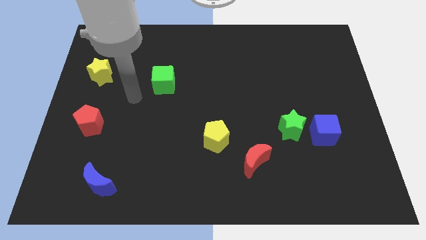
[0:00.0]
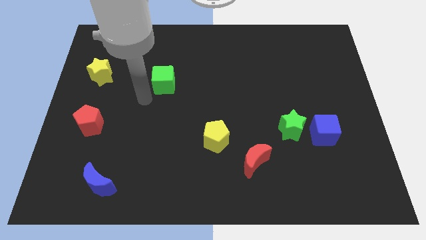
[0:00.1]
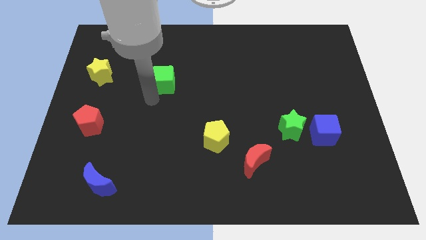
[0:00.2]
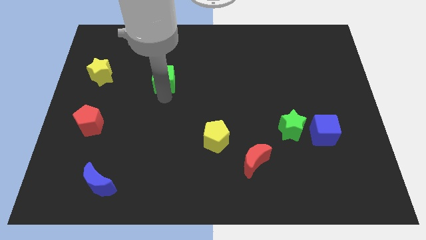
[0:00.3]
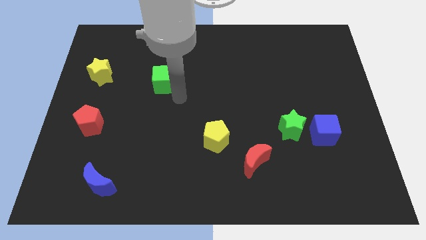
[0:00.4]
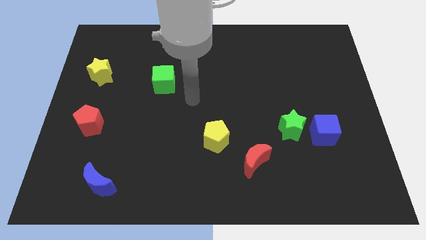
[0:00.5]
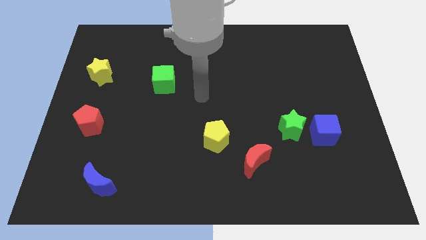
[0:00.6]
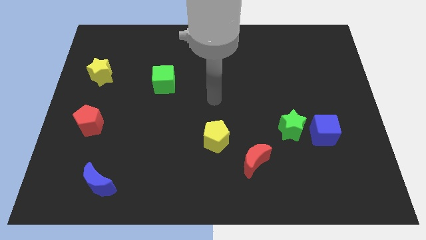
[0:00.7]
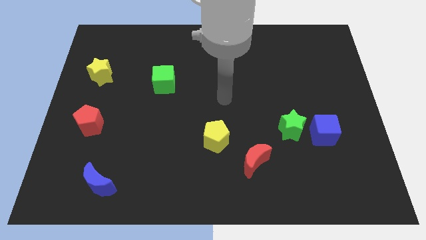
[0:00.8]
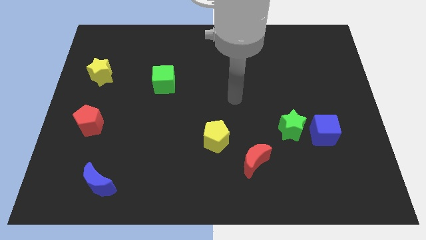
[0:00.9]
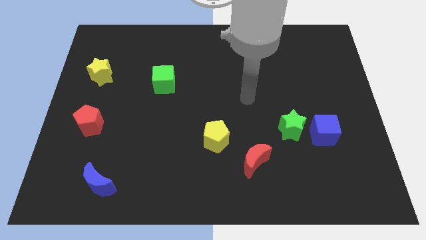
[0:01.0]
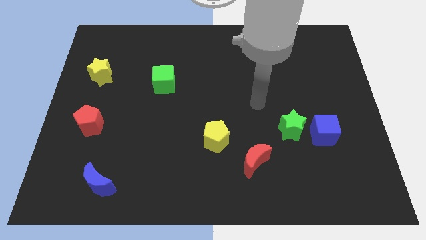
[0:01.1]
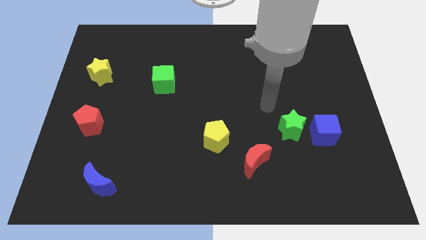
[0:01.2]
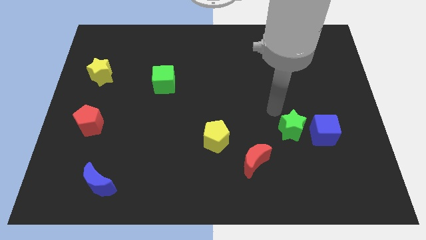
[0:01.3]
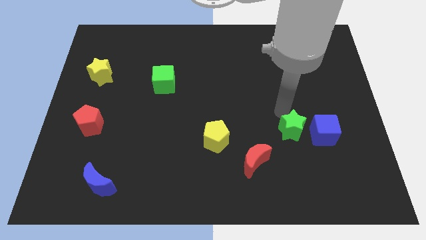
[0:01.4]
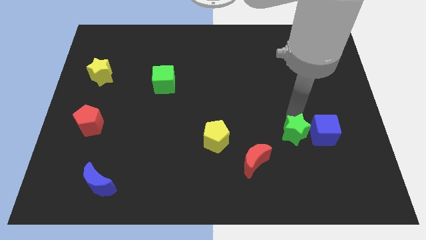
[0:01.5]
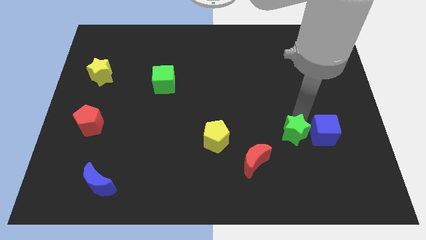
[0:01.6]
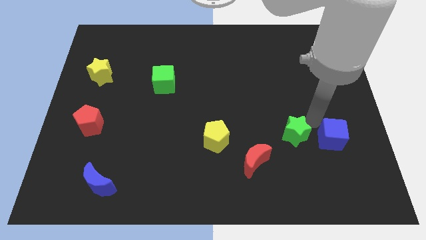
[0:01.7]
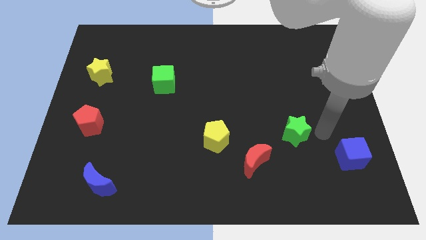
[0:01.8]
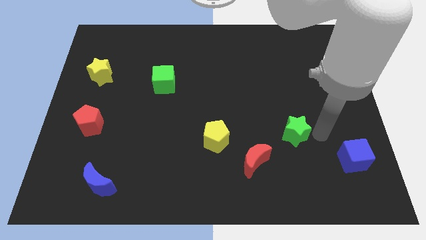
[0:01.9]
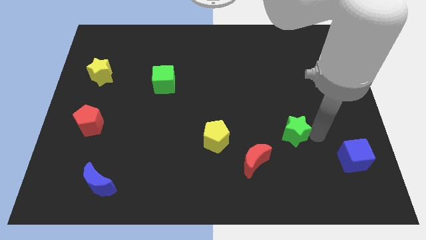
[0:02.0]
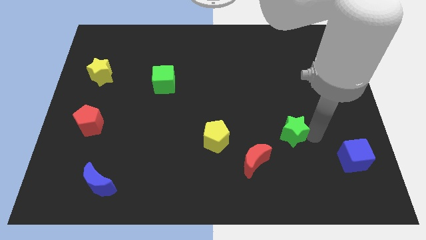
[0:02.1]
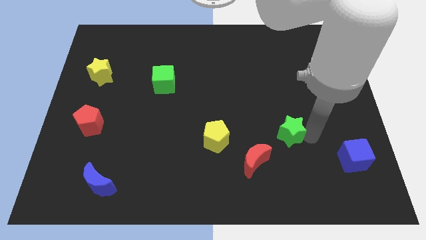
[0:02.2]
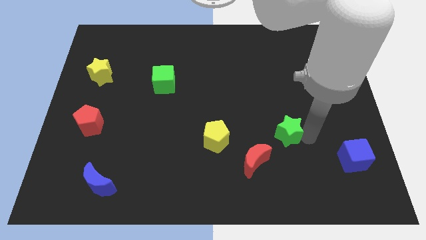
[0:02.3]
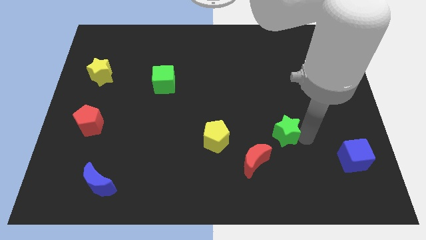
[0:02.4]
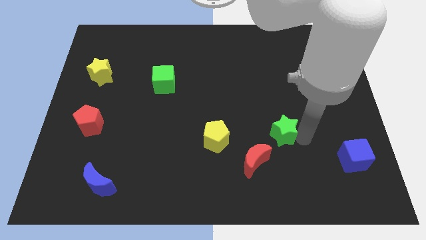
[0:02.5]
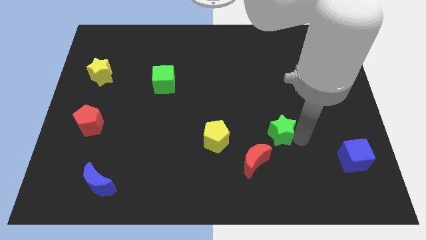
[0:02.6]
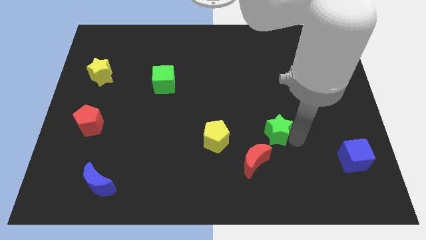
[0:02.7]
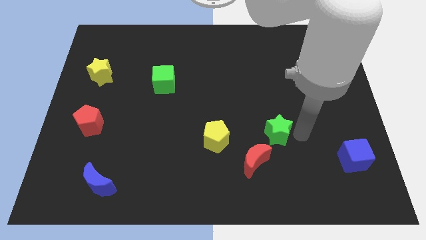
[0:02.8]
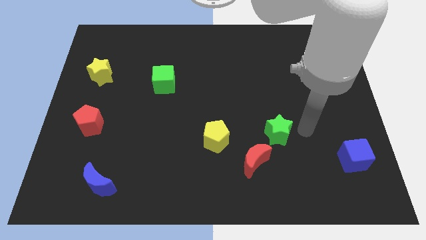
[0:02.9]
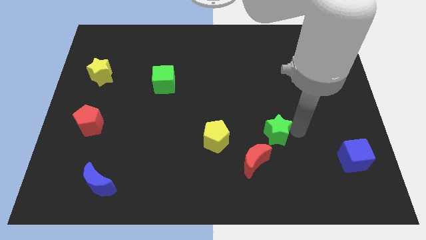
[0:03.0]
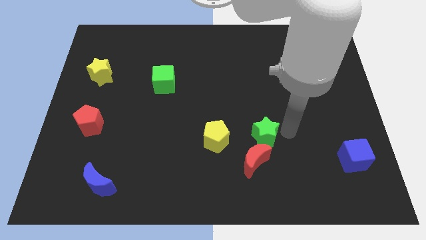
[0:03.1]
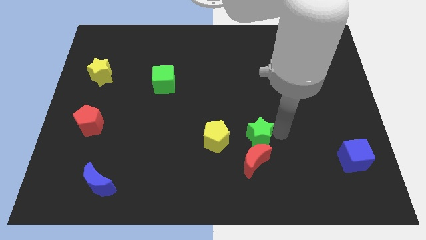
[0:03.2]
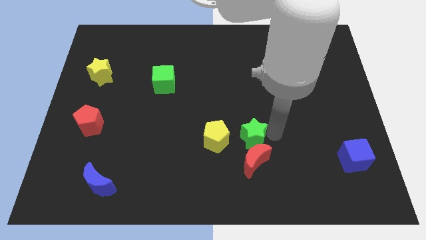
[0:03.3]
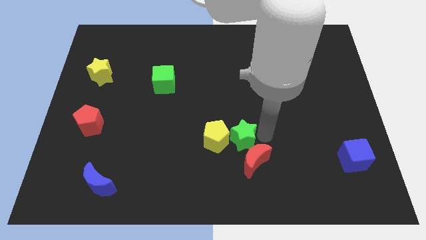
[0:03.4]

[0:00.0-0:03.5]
slide the green star to the yellow pentagon

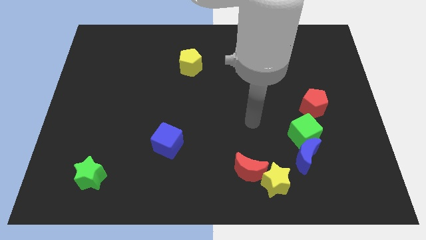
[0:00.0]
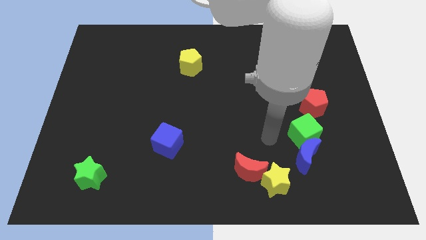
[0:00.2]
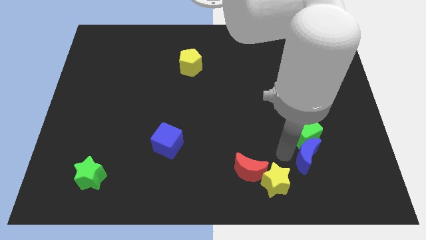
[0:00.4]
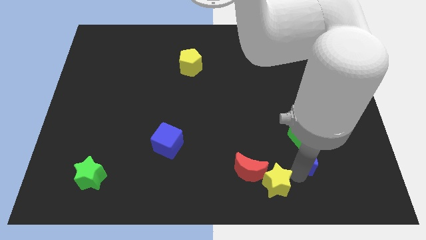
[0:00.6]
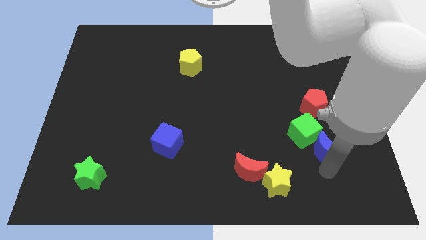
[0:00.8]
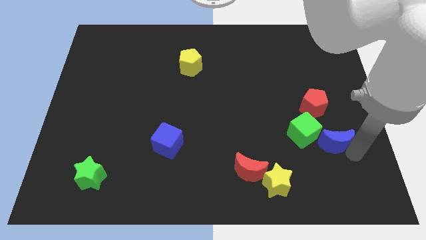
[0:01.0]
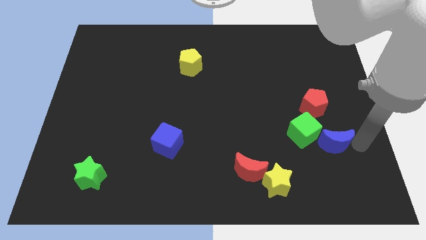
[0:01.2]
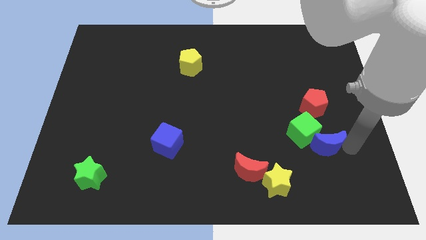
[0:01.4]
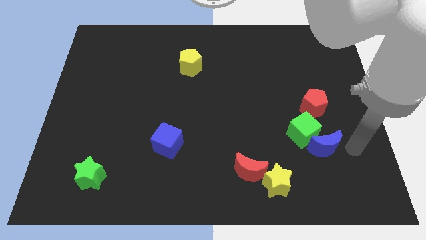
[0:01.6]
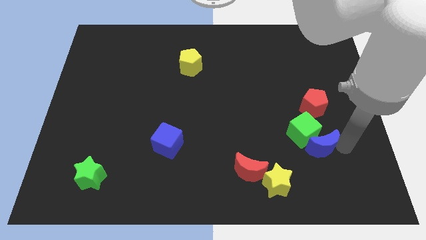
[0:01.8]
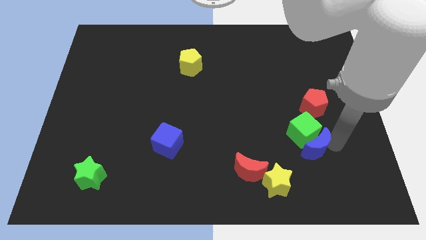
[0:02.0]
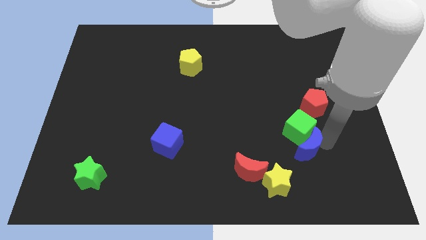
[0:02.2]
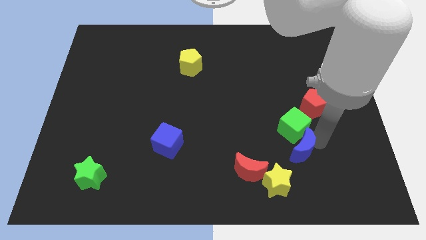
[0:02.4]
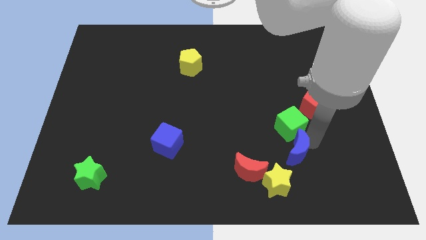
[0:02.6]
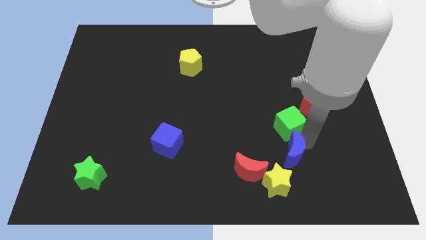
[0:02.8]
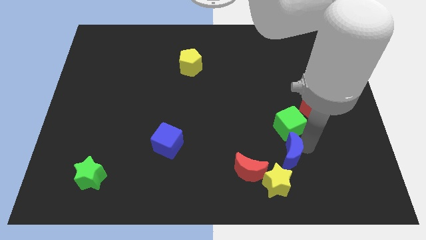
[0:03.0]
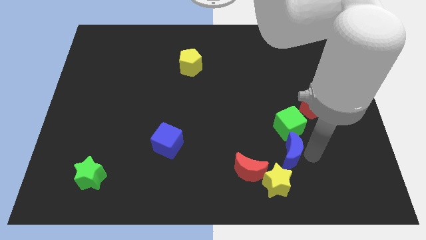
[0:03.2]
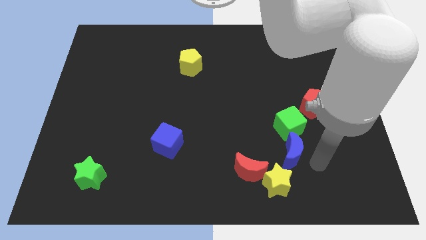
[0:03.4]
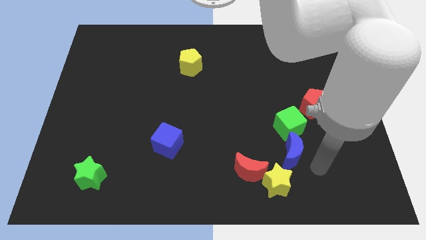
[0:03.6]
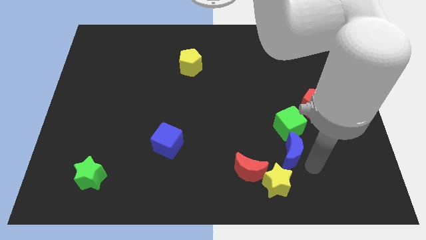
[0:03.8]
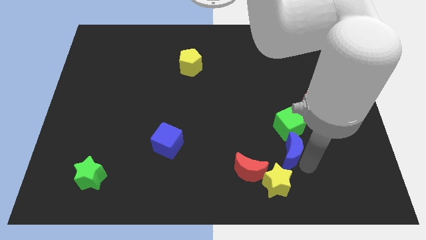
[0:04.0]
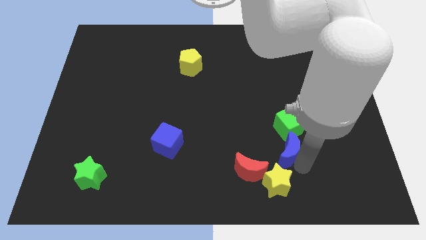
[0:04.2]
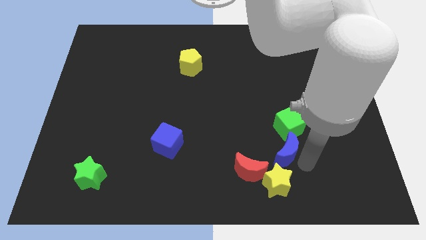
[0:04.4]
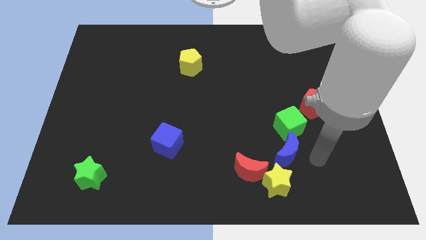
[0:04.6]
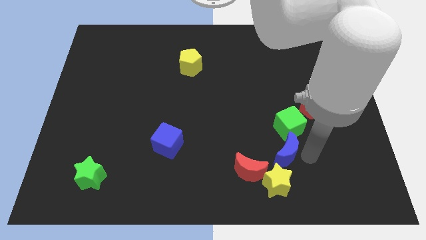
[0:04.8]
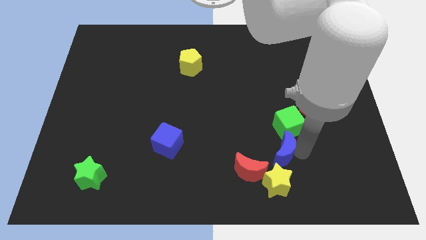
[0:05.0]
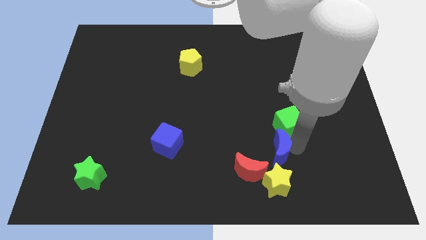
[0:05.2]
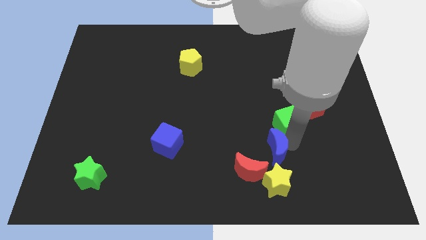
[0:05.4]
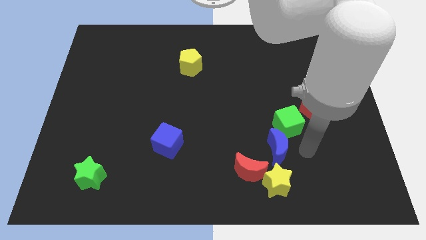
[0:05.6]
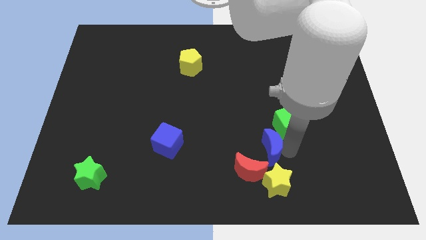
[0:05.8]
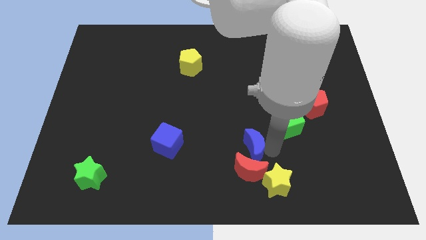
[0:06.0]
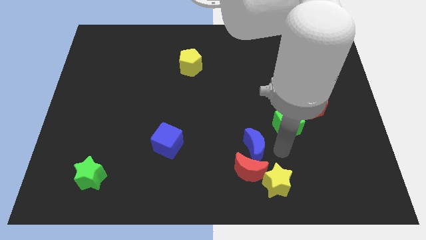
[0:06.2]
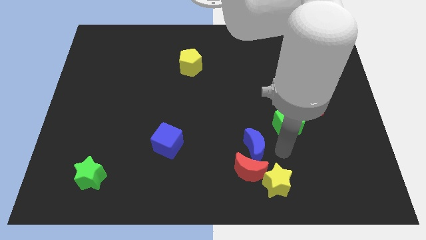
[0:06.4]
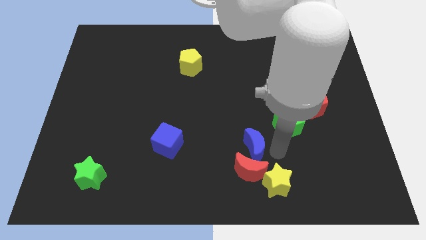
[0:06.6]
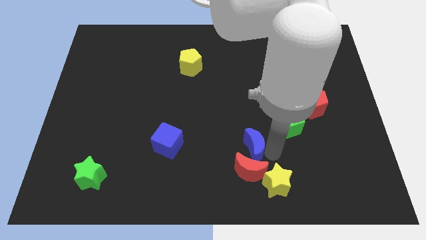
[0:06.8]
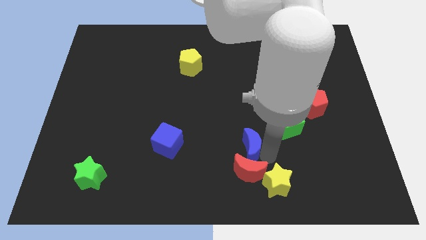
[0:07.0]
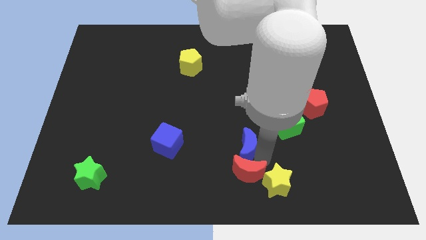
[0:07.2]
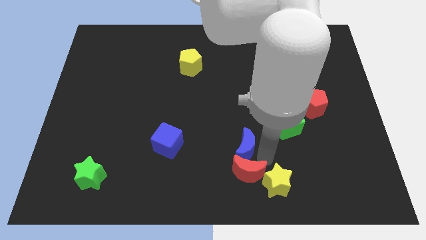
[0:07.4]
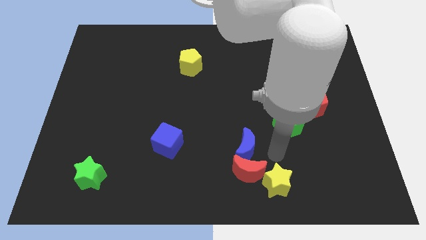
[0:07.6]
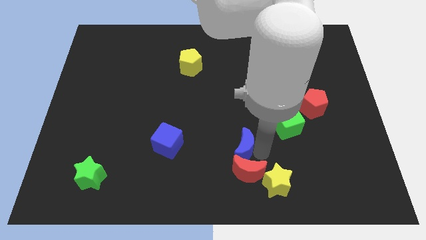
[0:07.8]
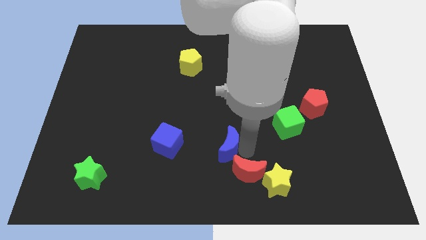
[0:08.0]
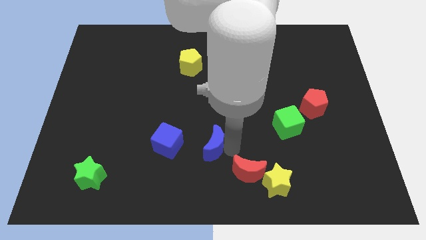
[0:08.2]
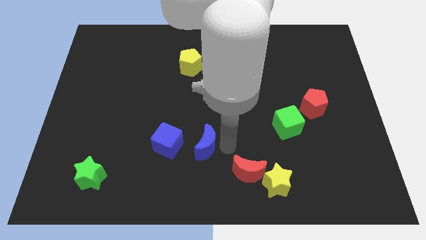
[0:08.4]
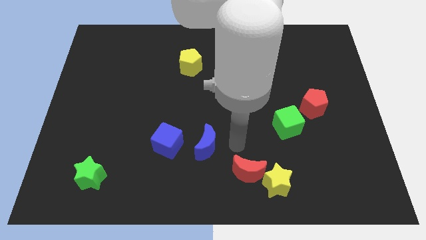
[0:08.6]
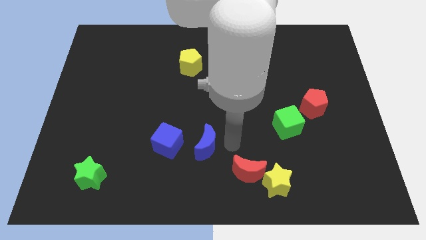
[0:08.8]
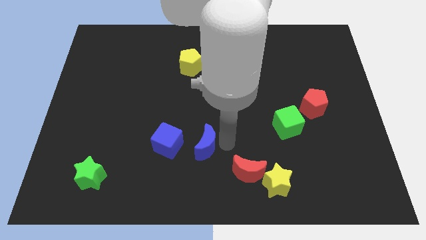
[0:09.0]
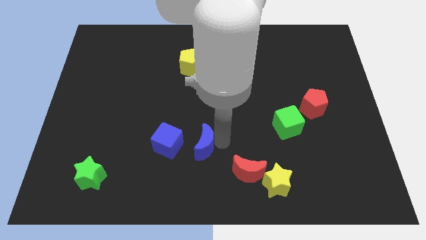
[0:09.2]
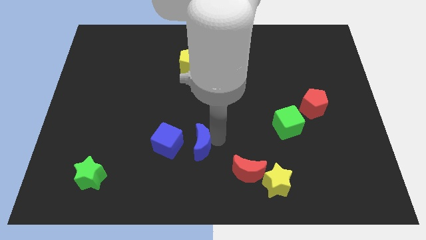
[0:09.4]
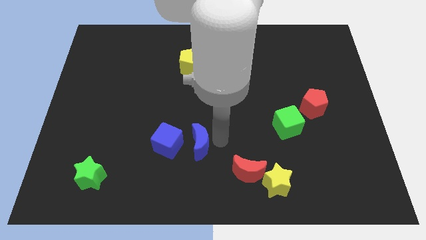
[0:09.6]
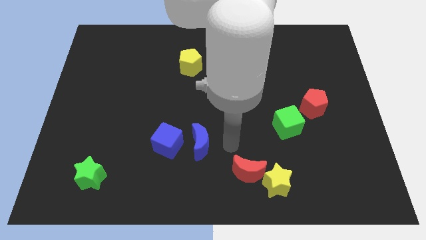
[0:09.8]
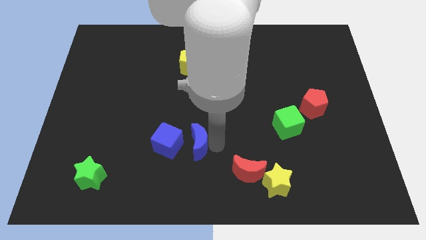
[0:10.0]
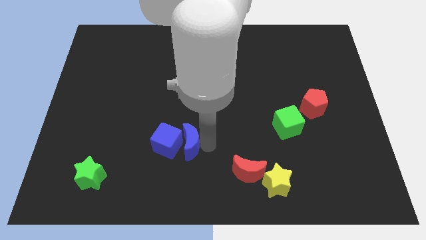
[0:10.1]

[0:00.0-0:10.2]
slide the blue moon to the blue cube
